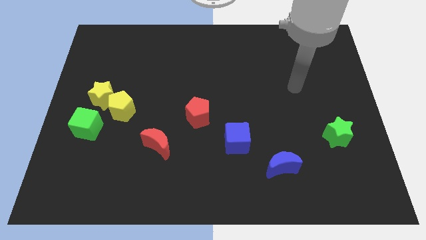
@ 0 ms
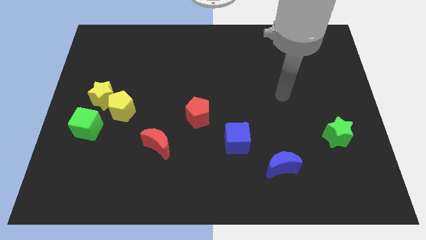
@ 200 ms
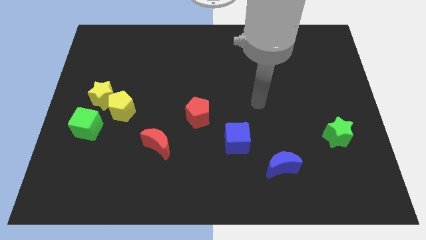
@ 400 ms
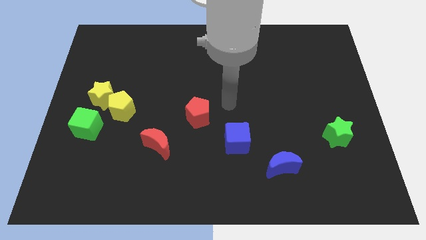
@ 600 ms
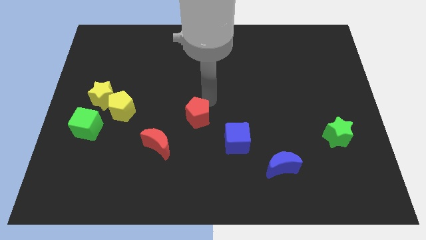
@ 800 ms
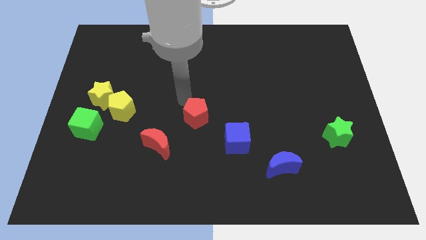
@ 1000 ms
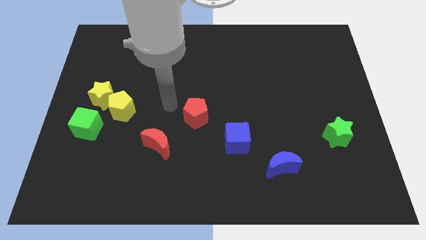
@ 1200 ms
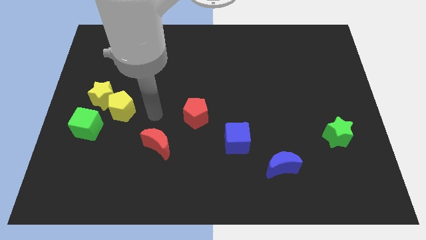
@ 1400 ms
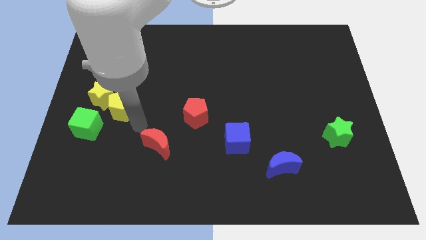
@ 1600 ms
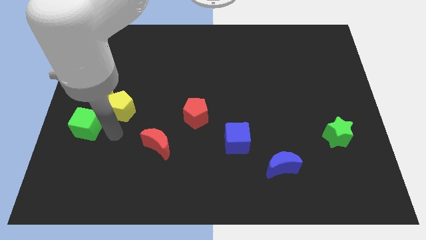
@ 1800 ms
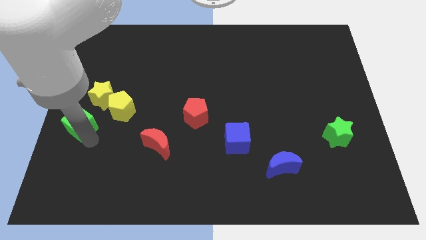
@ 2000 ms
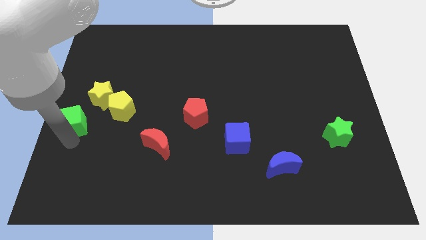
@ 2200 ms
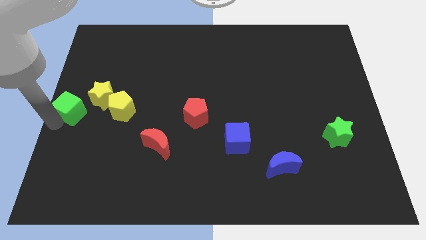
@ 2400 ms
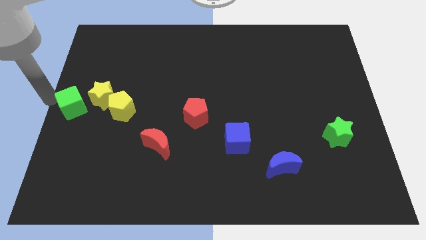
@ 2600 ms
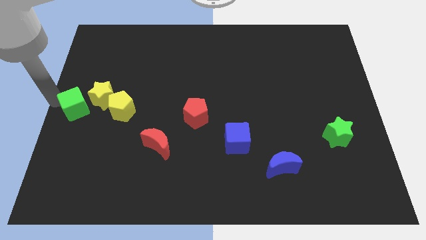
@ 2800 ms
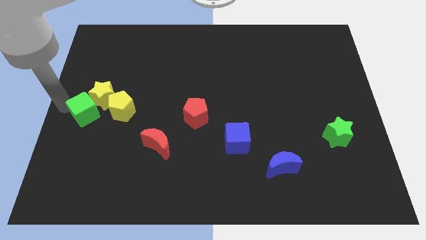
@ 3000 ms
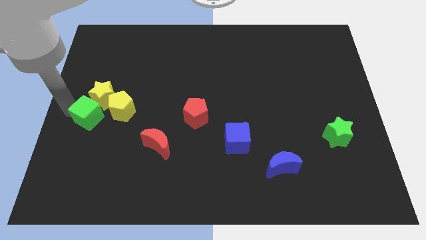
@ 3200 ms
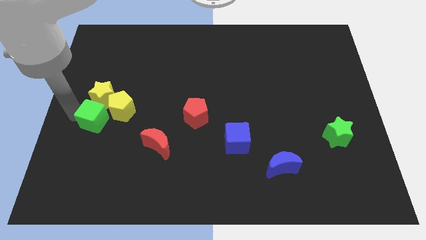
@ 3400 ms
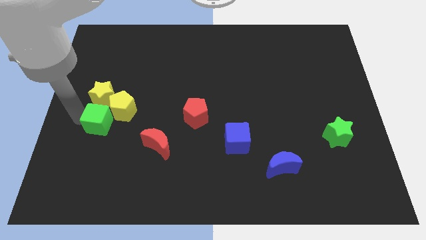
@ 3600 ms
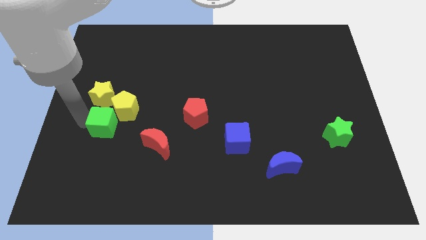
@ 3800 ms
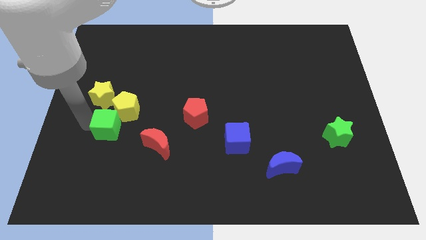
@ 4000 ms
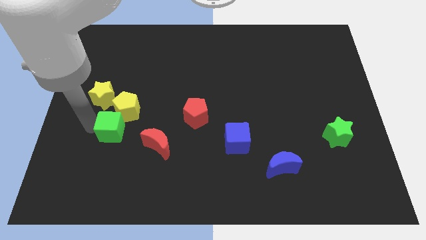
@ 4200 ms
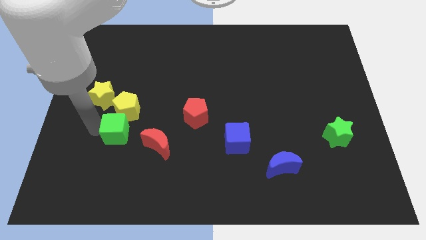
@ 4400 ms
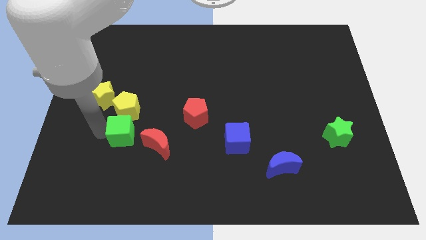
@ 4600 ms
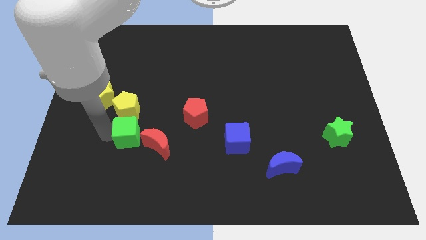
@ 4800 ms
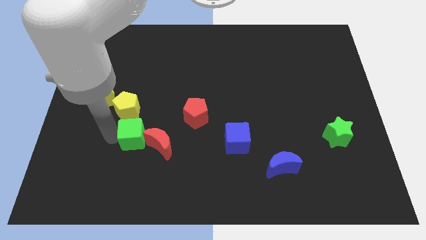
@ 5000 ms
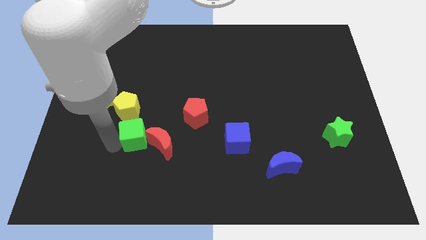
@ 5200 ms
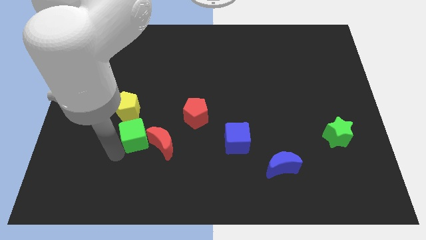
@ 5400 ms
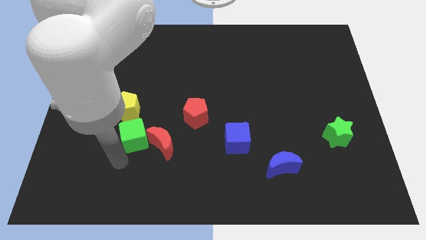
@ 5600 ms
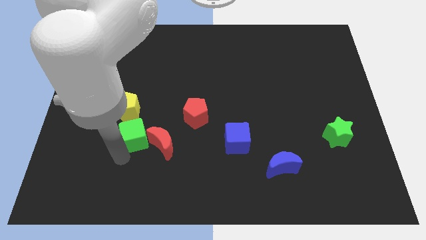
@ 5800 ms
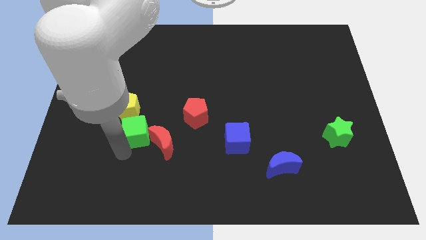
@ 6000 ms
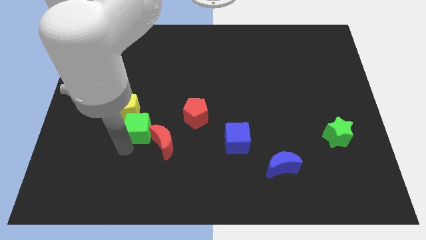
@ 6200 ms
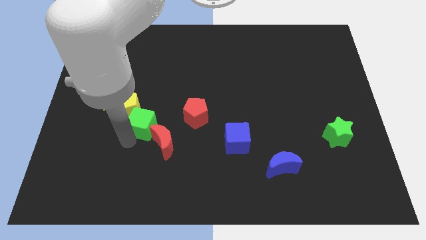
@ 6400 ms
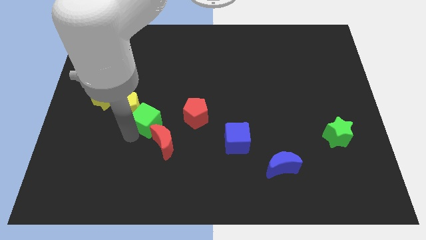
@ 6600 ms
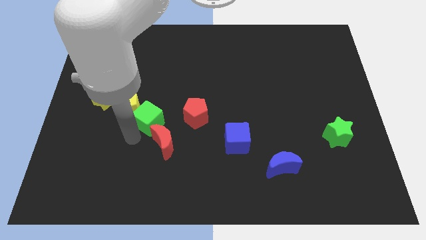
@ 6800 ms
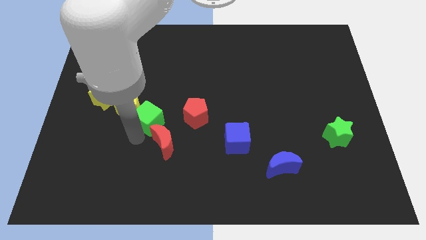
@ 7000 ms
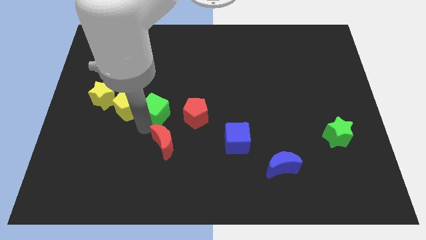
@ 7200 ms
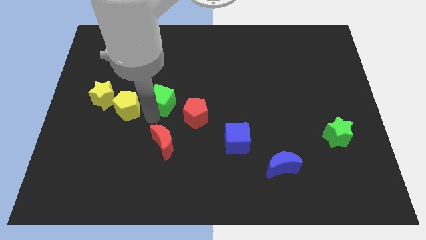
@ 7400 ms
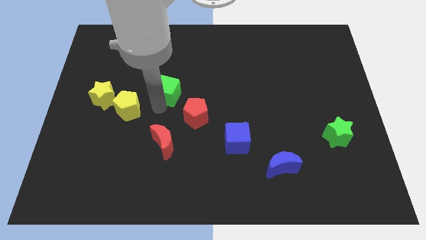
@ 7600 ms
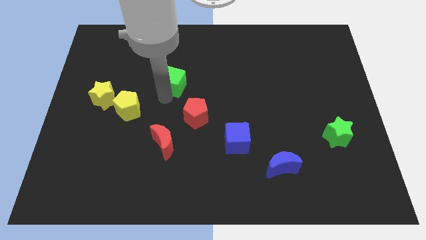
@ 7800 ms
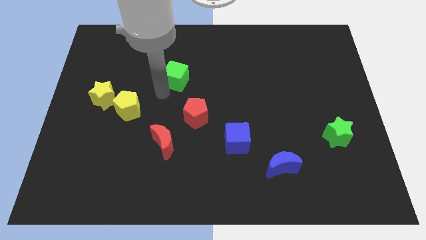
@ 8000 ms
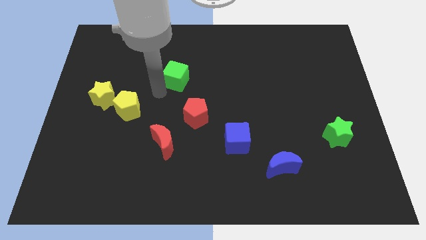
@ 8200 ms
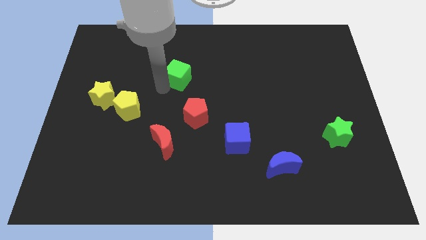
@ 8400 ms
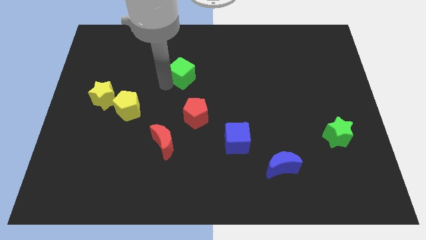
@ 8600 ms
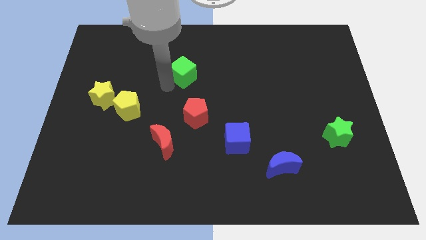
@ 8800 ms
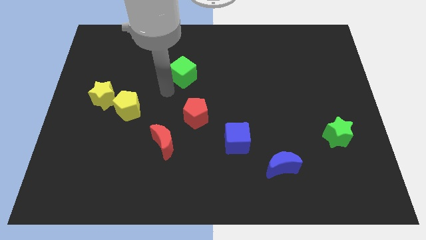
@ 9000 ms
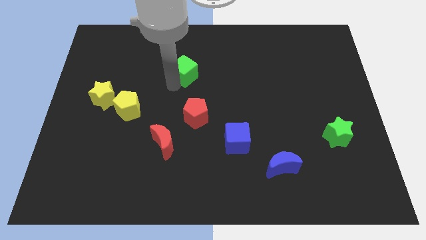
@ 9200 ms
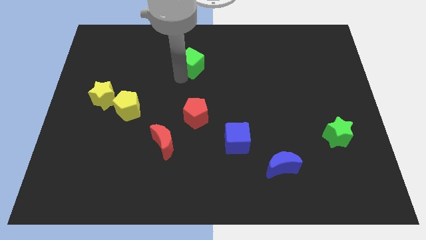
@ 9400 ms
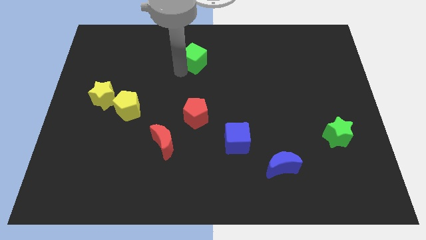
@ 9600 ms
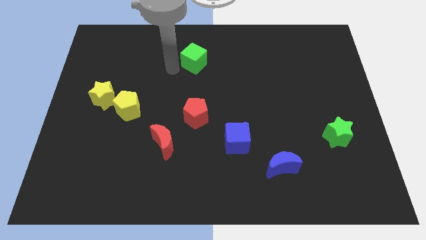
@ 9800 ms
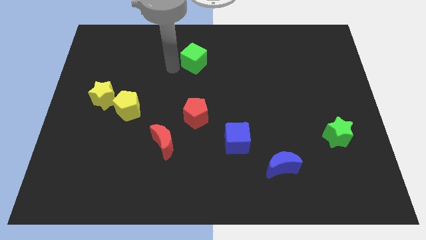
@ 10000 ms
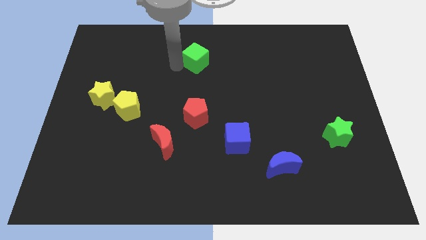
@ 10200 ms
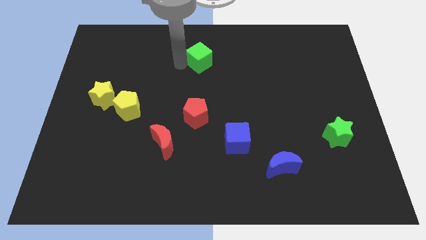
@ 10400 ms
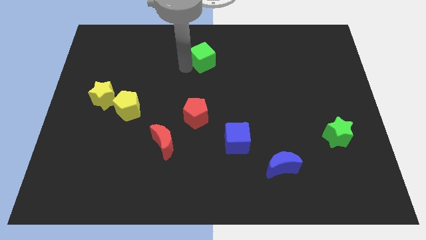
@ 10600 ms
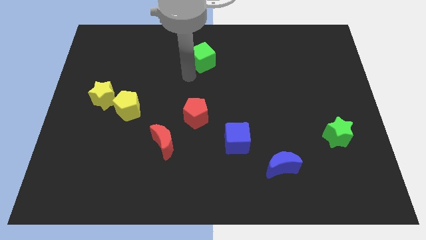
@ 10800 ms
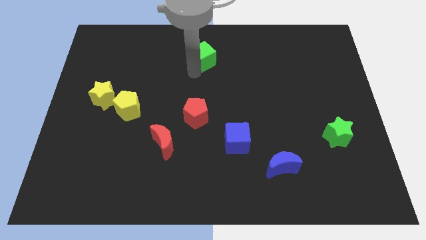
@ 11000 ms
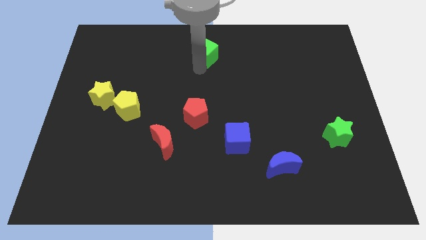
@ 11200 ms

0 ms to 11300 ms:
put the green cube to the towards your base
